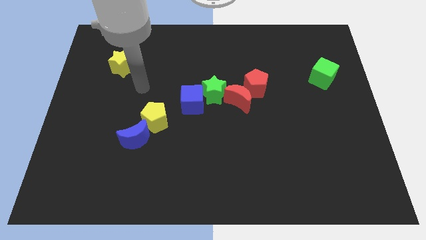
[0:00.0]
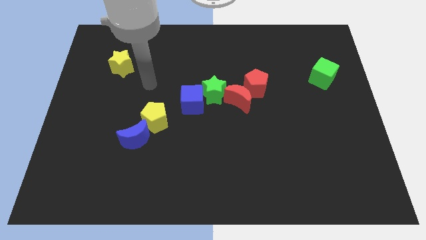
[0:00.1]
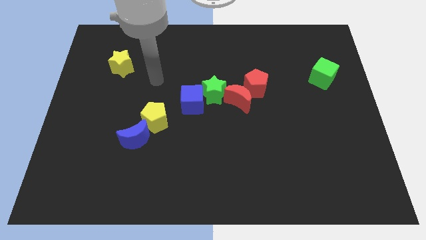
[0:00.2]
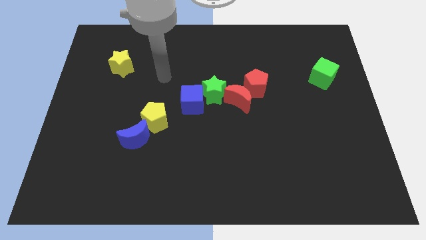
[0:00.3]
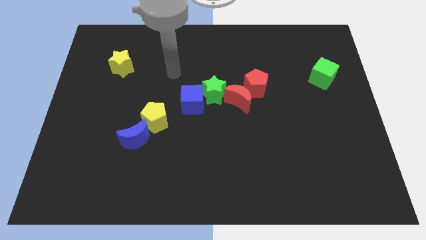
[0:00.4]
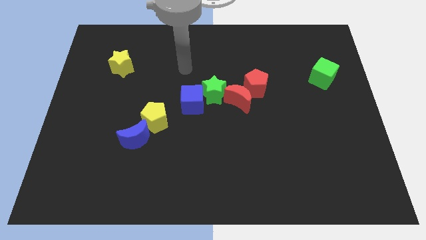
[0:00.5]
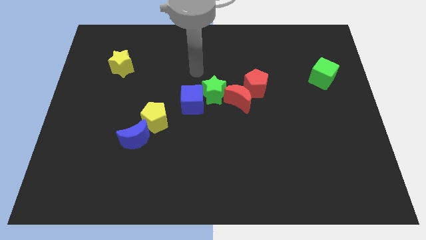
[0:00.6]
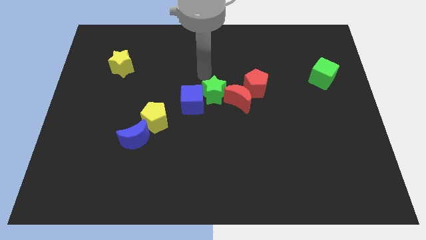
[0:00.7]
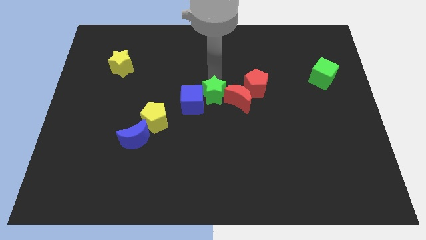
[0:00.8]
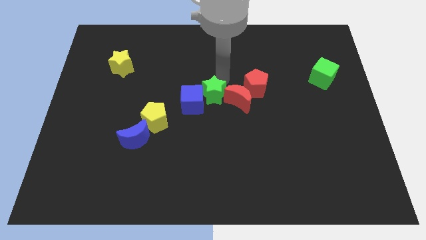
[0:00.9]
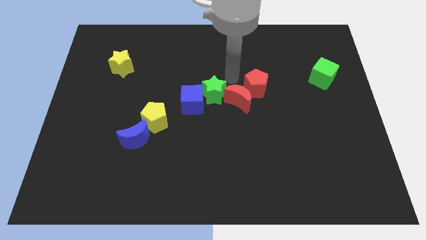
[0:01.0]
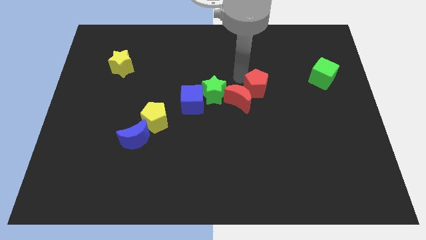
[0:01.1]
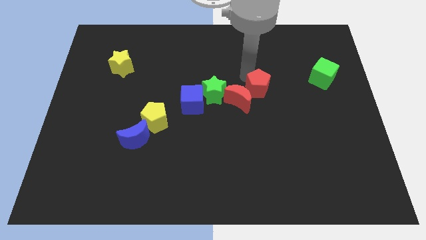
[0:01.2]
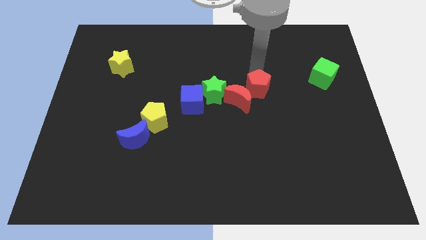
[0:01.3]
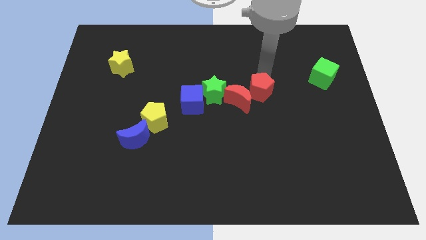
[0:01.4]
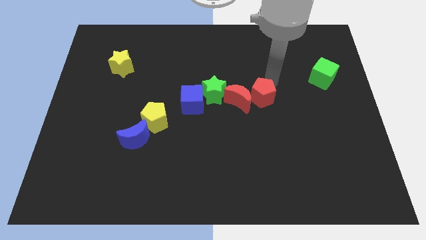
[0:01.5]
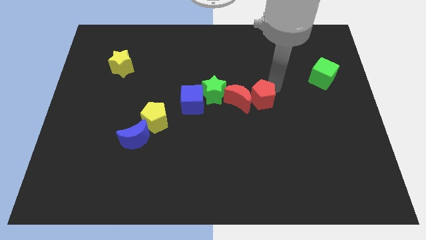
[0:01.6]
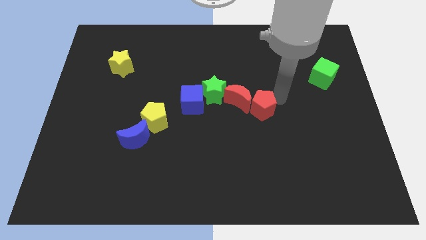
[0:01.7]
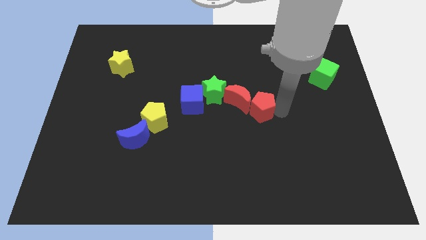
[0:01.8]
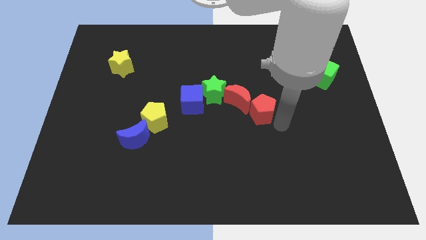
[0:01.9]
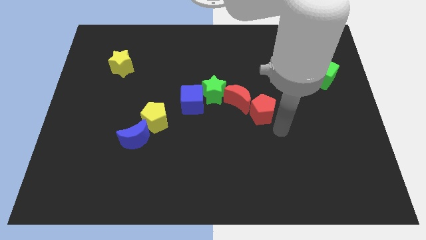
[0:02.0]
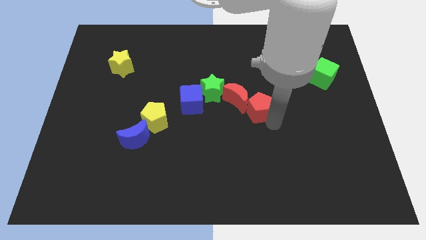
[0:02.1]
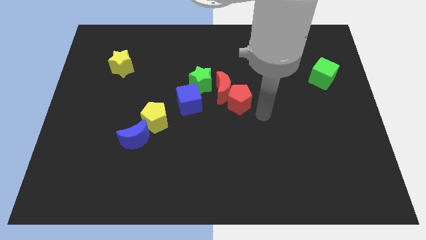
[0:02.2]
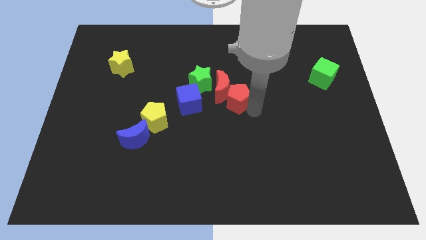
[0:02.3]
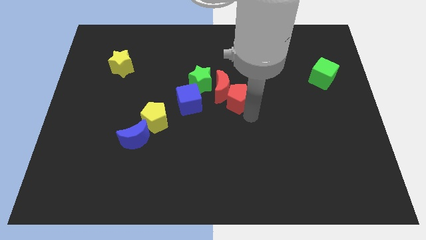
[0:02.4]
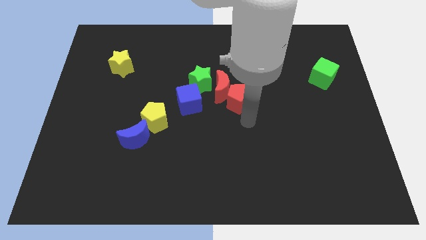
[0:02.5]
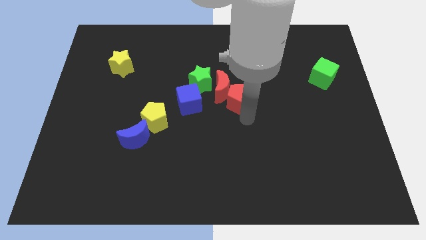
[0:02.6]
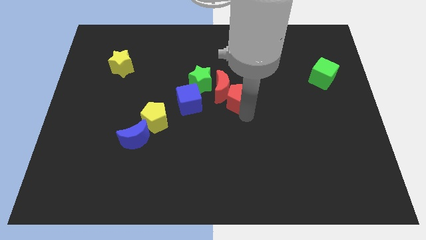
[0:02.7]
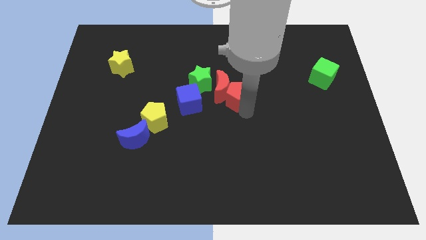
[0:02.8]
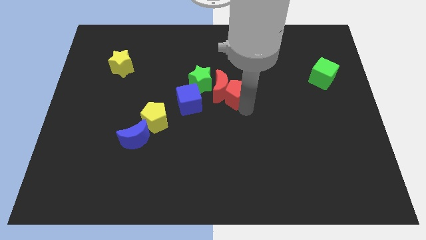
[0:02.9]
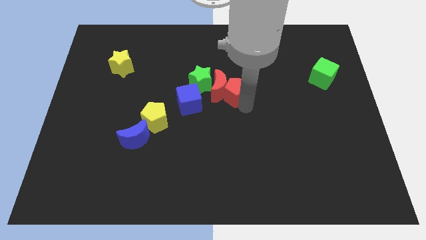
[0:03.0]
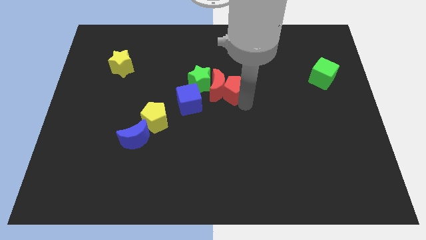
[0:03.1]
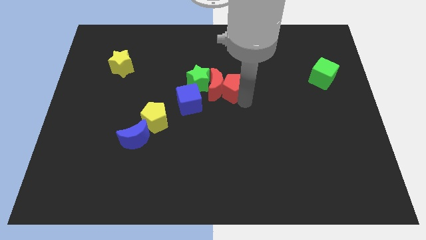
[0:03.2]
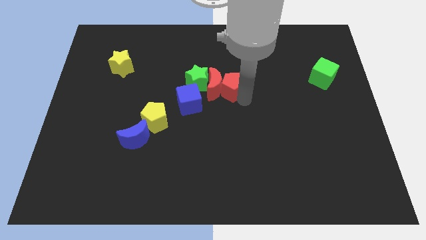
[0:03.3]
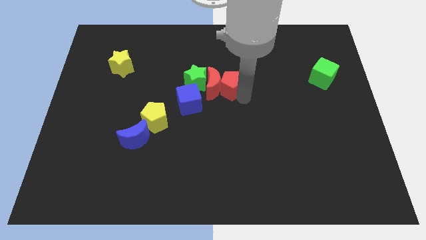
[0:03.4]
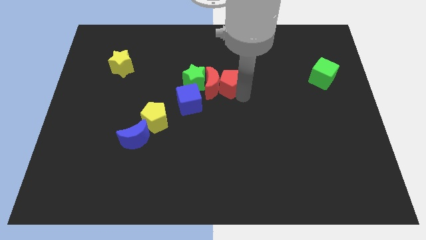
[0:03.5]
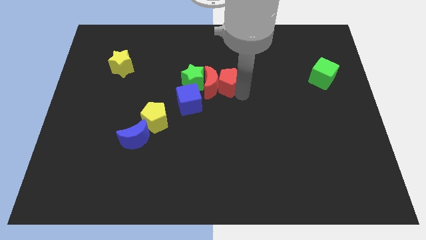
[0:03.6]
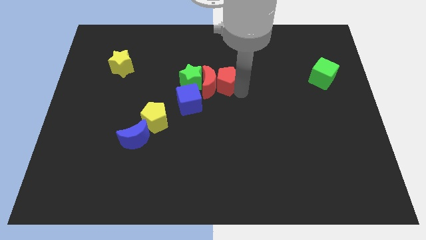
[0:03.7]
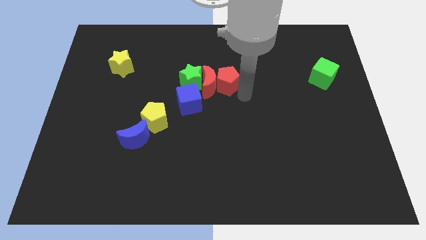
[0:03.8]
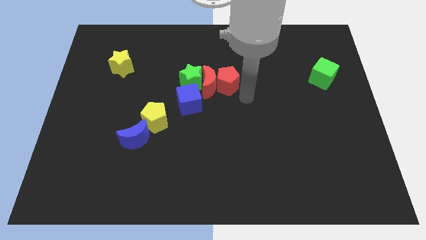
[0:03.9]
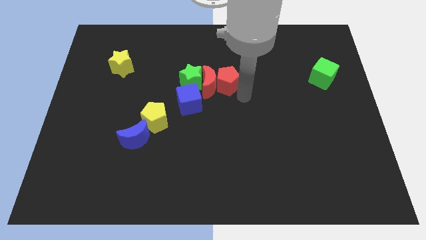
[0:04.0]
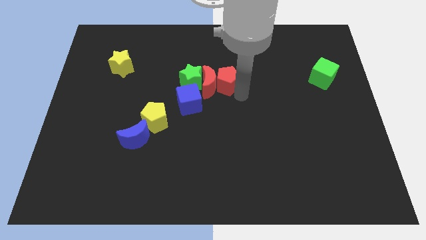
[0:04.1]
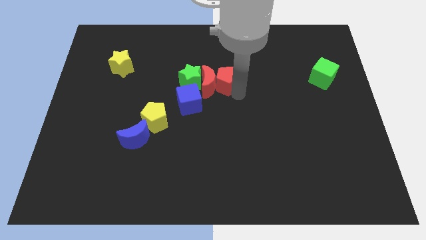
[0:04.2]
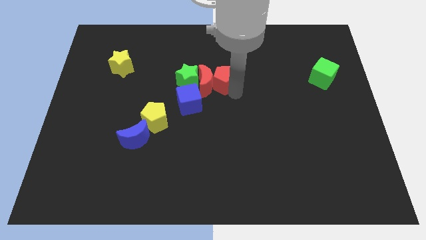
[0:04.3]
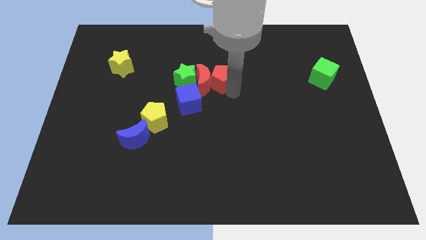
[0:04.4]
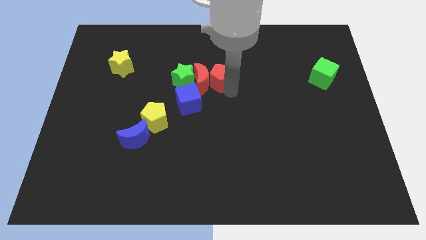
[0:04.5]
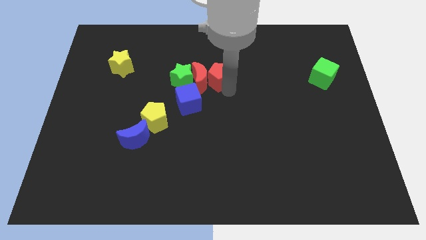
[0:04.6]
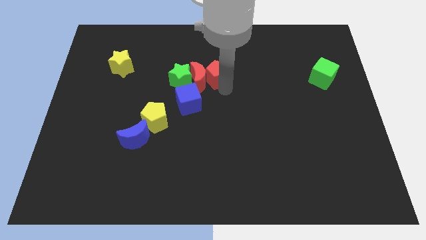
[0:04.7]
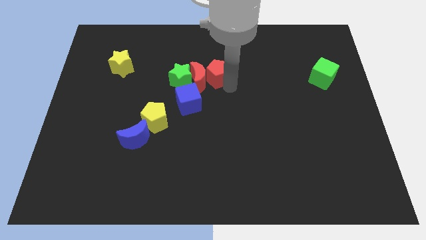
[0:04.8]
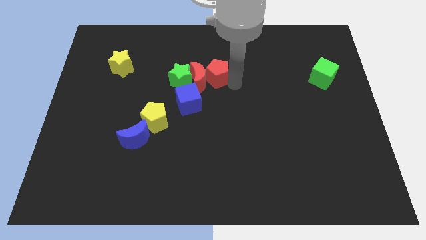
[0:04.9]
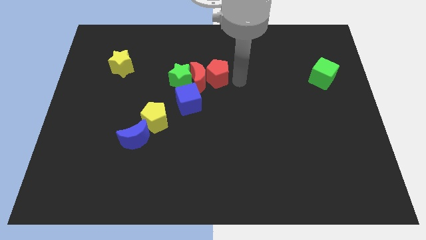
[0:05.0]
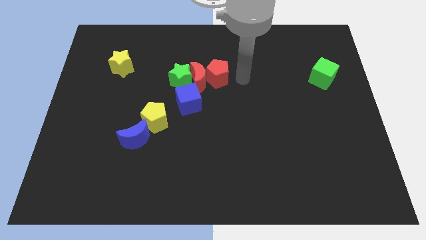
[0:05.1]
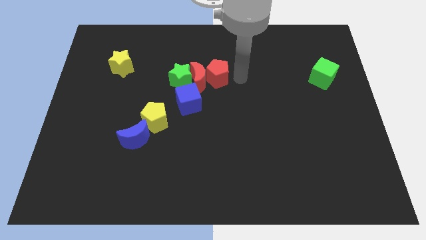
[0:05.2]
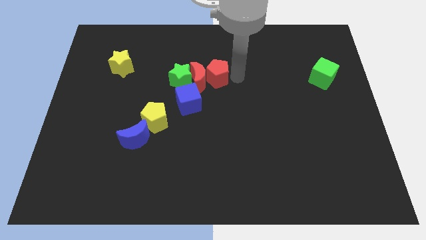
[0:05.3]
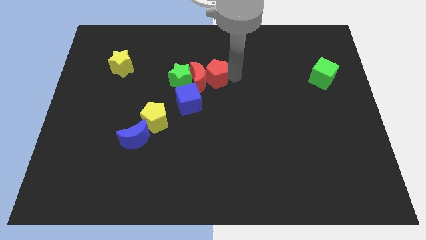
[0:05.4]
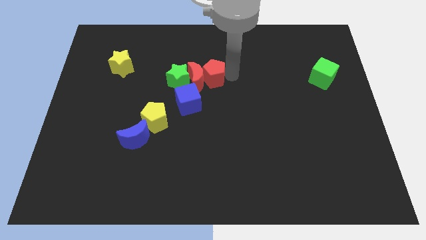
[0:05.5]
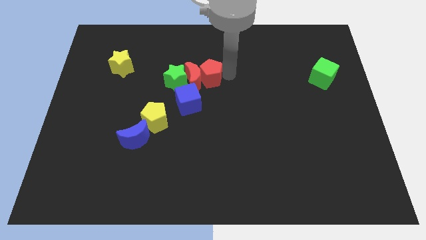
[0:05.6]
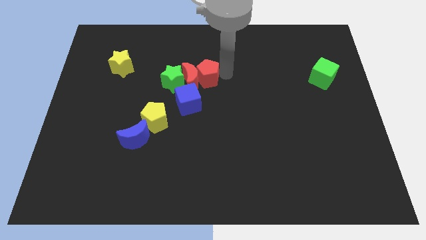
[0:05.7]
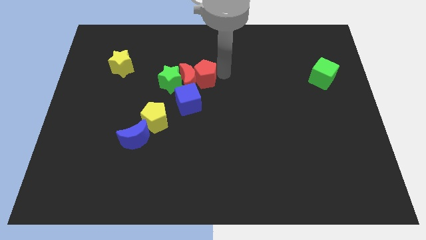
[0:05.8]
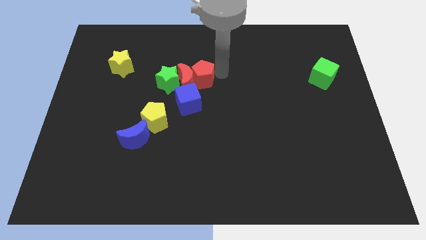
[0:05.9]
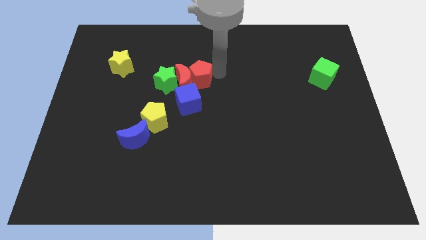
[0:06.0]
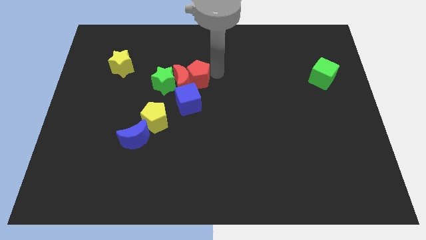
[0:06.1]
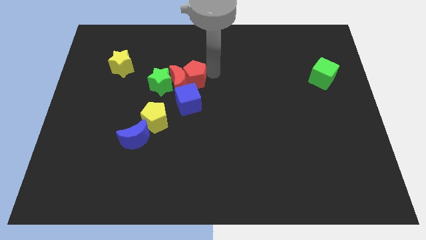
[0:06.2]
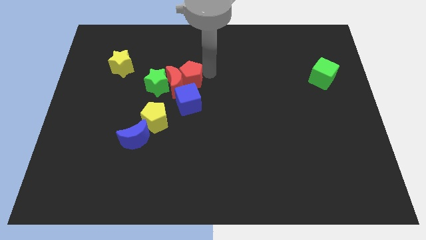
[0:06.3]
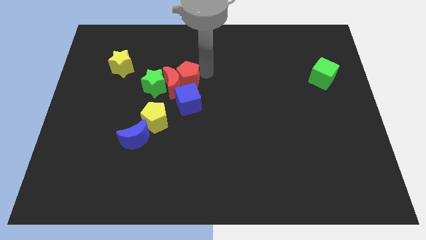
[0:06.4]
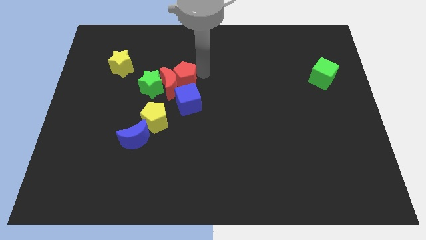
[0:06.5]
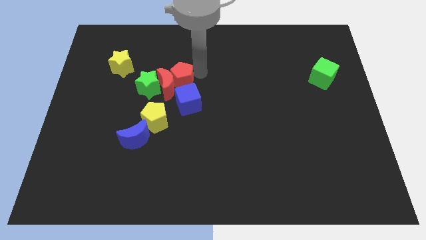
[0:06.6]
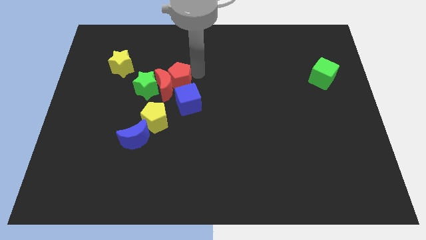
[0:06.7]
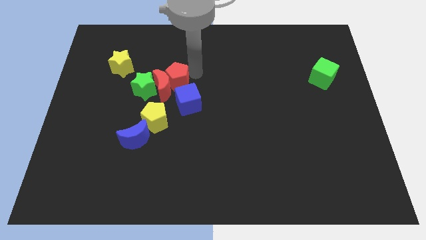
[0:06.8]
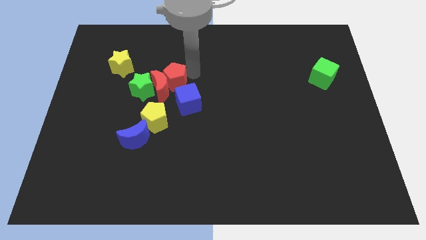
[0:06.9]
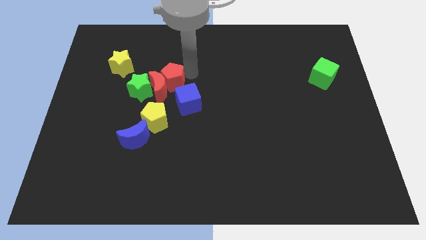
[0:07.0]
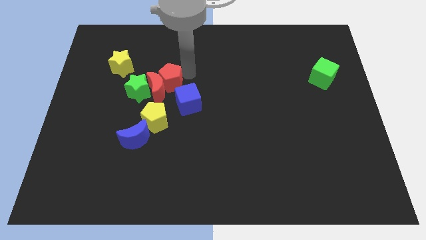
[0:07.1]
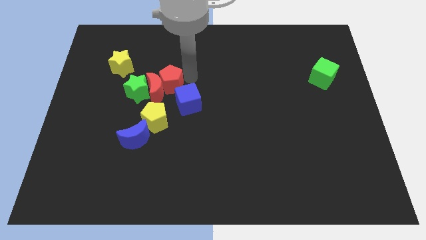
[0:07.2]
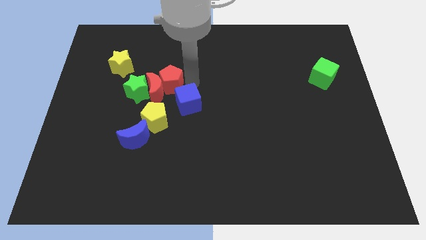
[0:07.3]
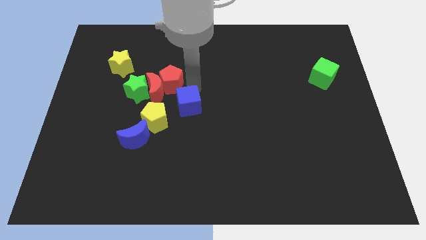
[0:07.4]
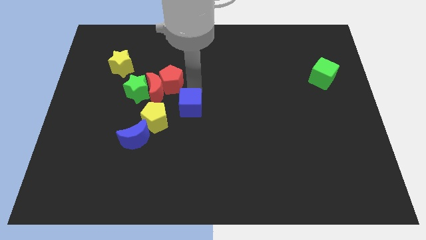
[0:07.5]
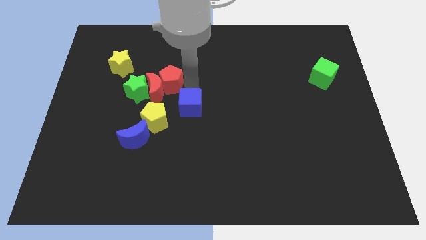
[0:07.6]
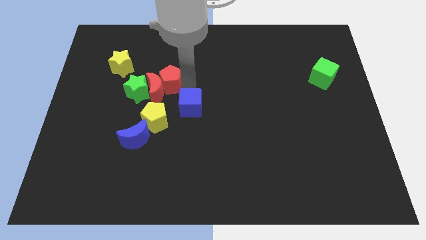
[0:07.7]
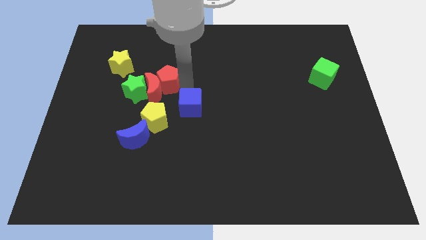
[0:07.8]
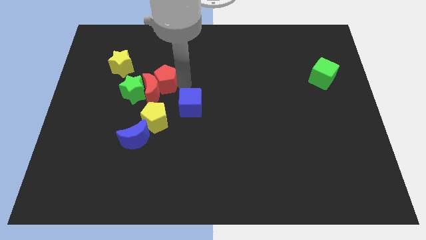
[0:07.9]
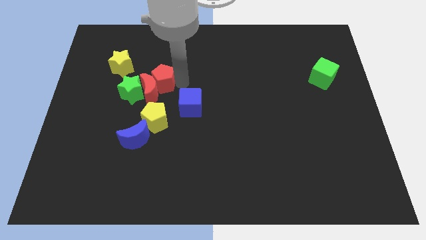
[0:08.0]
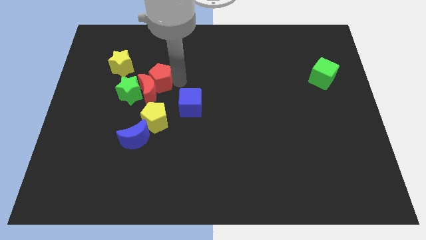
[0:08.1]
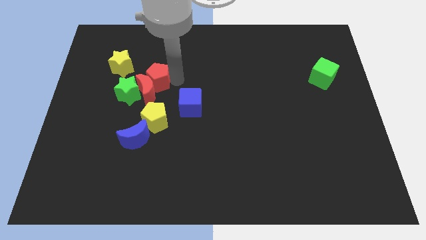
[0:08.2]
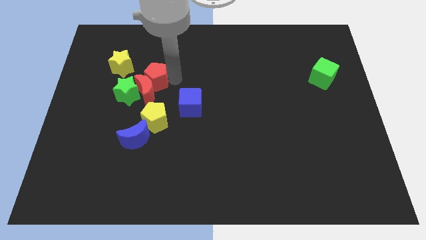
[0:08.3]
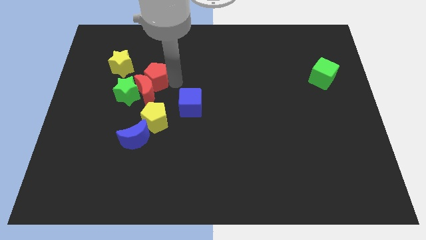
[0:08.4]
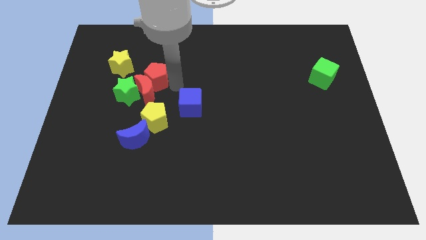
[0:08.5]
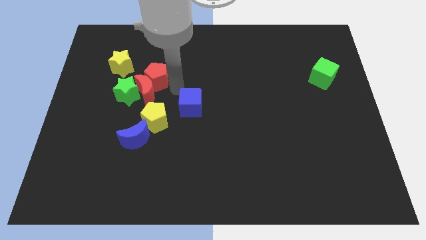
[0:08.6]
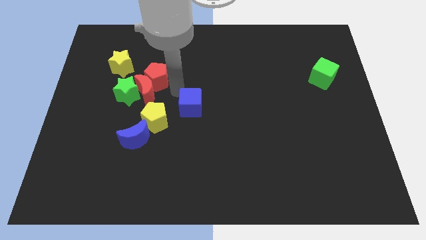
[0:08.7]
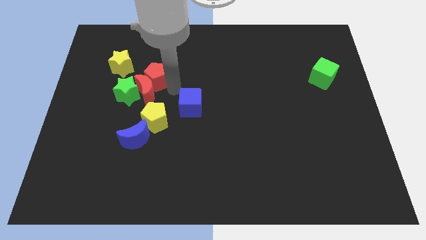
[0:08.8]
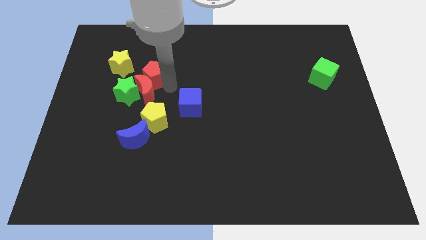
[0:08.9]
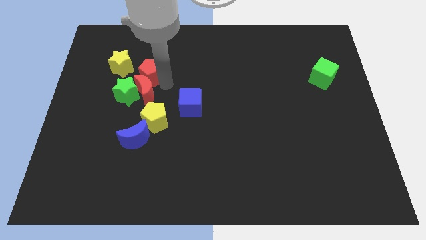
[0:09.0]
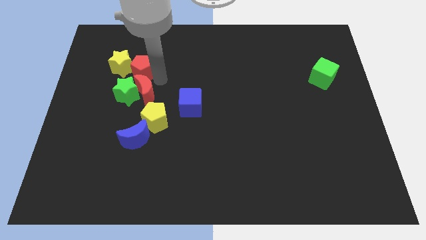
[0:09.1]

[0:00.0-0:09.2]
slide the red pentagon close to the yellow star
